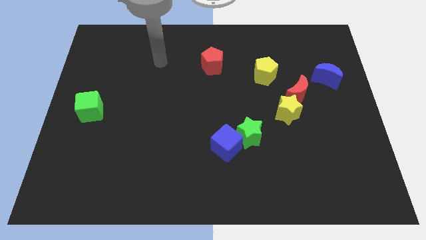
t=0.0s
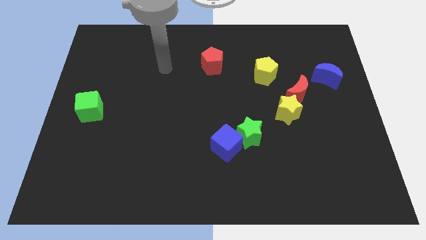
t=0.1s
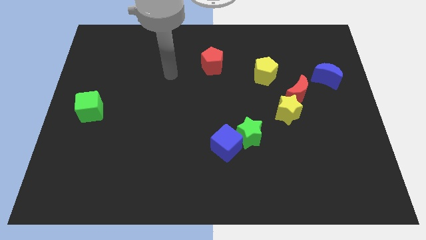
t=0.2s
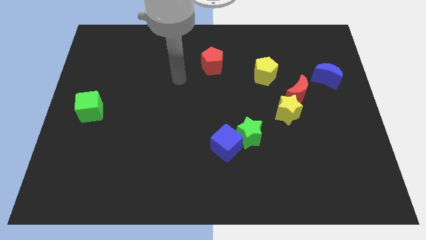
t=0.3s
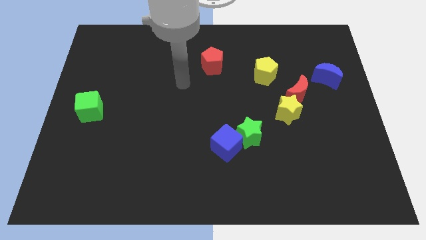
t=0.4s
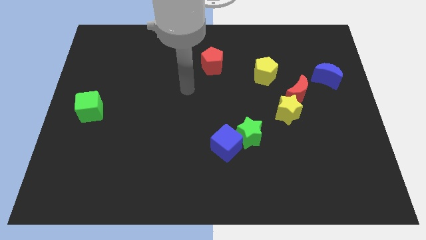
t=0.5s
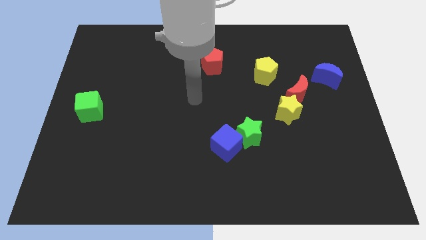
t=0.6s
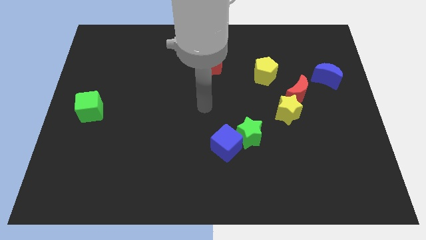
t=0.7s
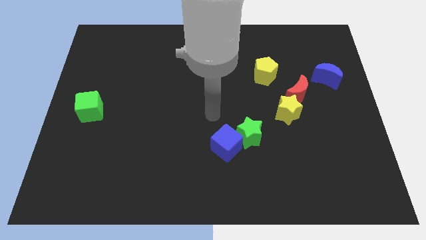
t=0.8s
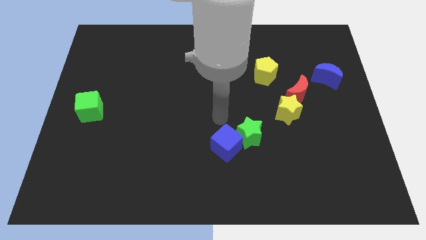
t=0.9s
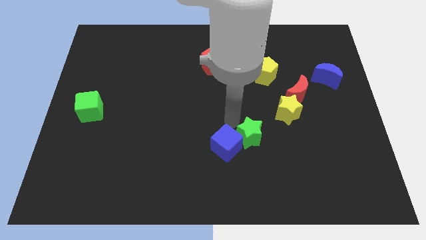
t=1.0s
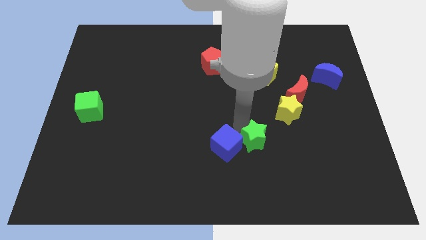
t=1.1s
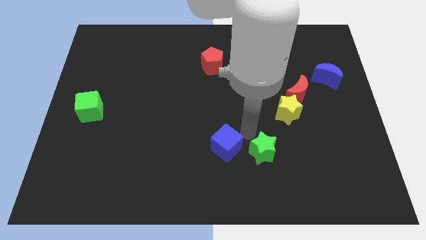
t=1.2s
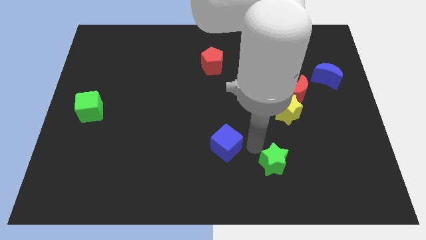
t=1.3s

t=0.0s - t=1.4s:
pull the blue cube apart from the green star

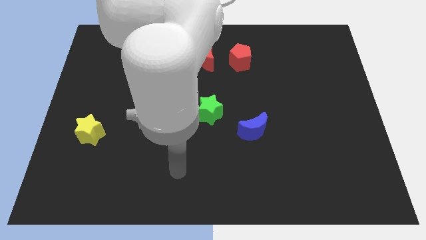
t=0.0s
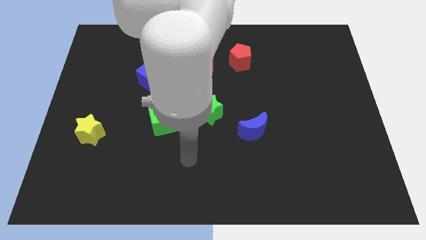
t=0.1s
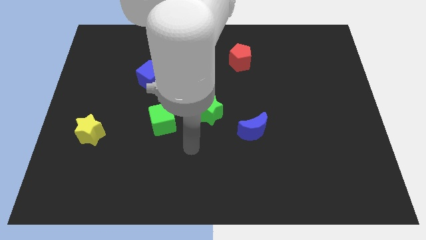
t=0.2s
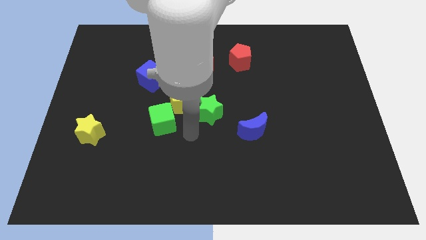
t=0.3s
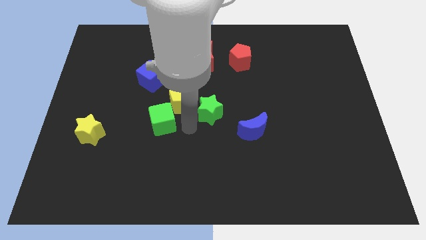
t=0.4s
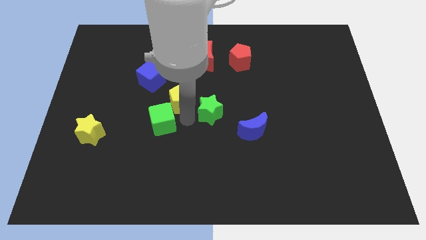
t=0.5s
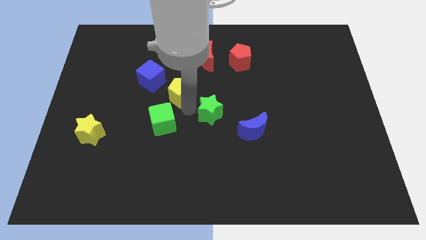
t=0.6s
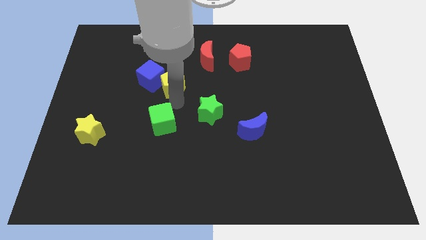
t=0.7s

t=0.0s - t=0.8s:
separate the green cube from the yellow pentagon

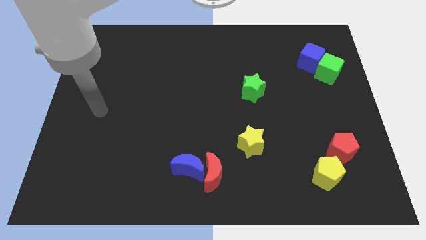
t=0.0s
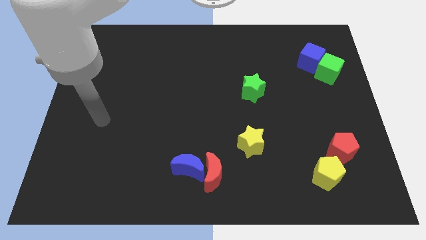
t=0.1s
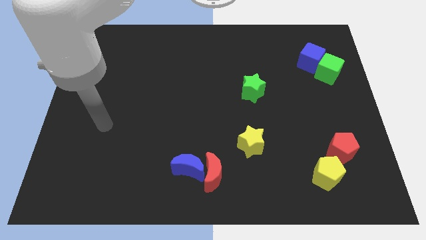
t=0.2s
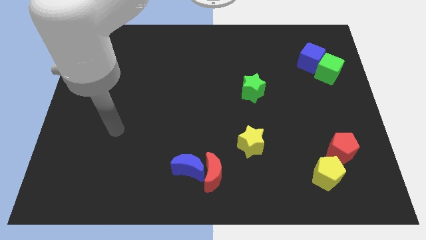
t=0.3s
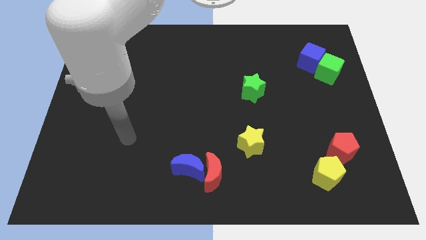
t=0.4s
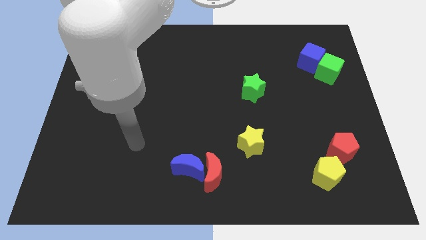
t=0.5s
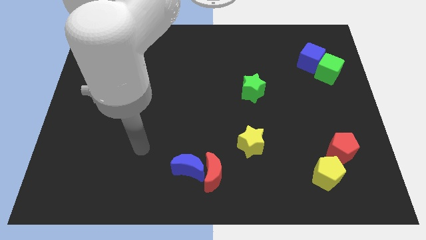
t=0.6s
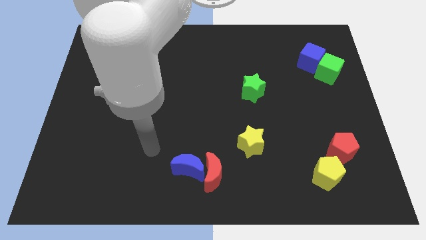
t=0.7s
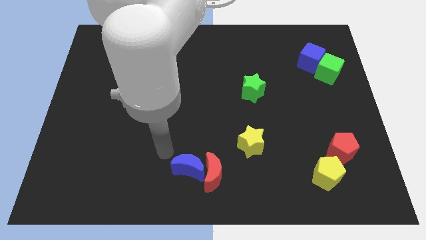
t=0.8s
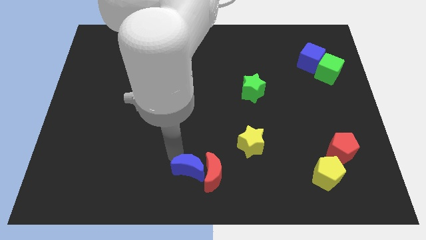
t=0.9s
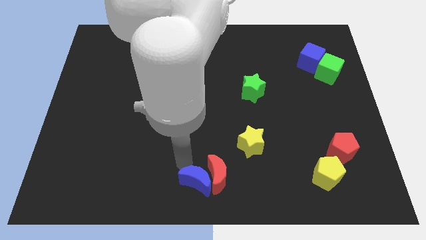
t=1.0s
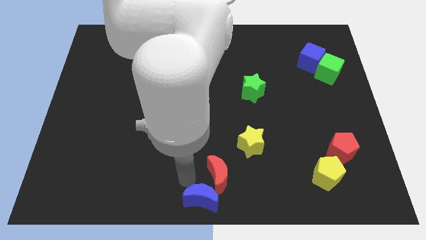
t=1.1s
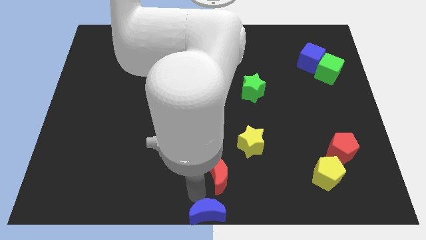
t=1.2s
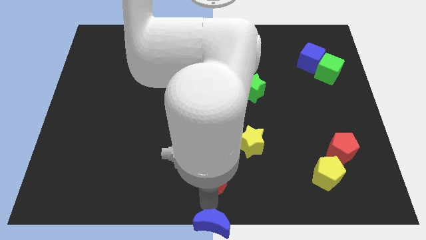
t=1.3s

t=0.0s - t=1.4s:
pull the red moon apart from the blue moon

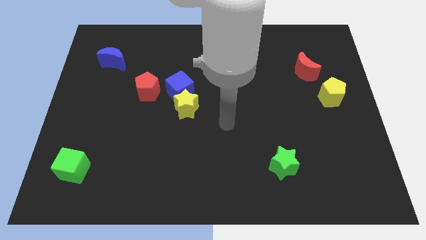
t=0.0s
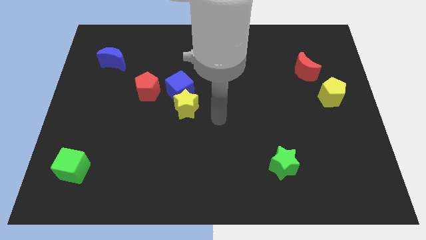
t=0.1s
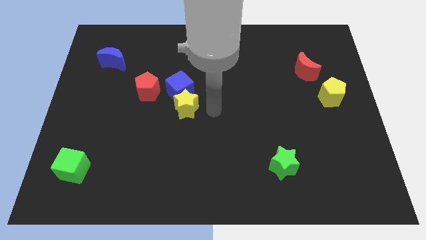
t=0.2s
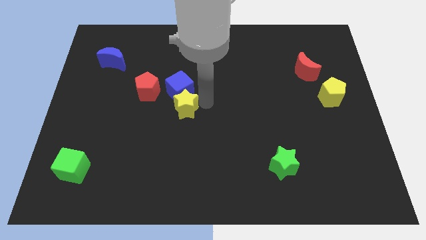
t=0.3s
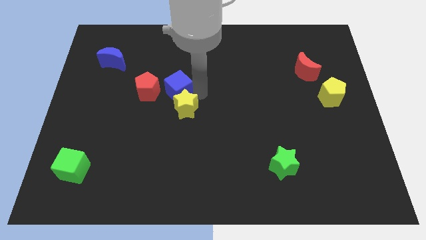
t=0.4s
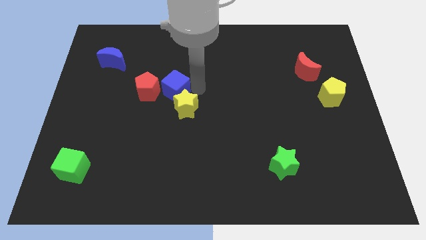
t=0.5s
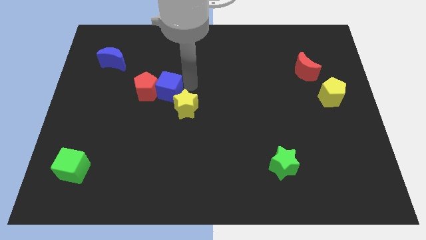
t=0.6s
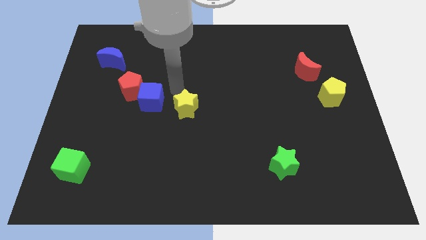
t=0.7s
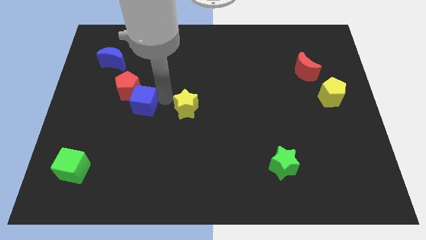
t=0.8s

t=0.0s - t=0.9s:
separate the yellow star from the blue cube

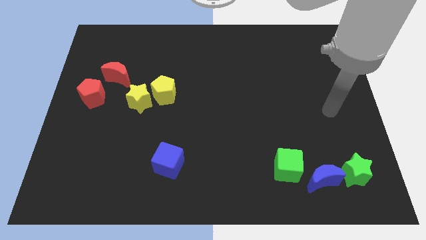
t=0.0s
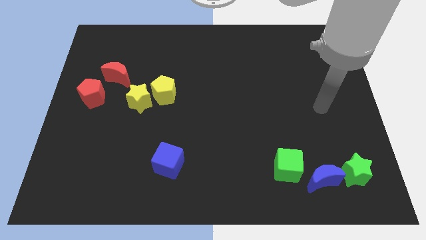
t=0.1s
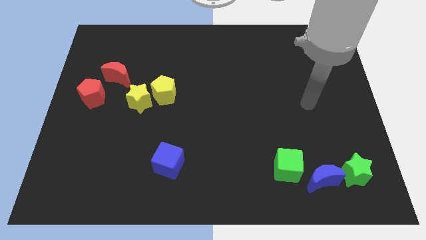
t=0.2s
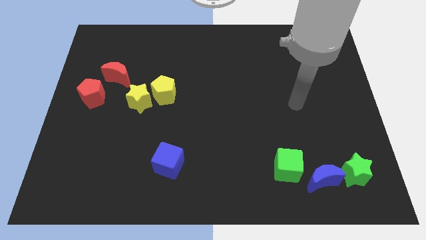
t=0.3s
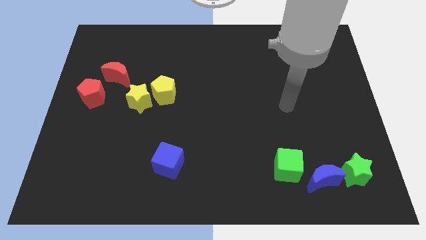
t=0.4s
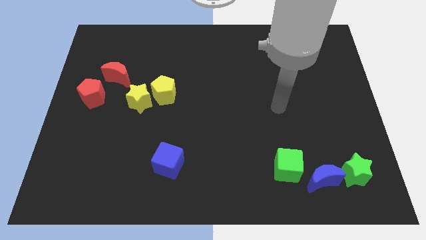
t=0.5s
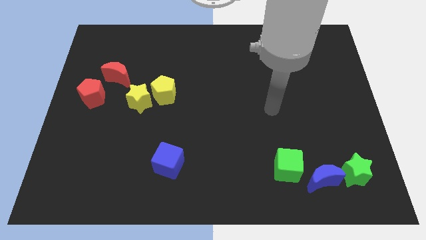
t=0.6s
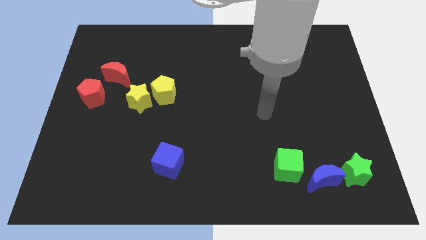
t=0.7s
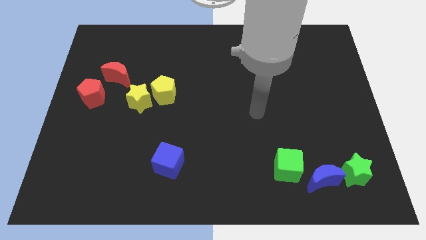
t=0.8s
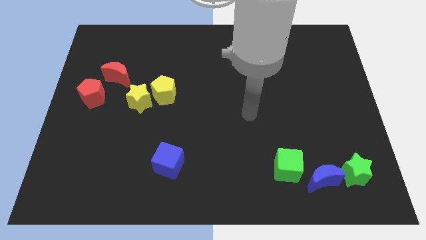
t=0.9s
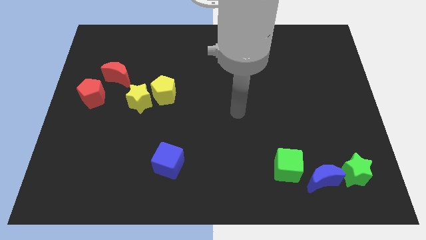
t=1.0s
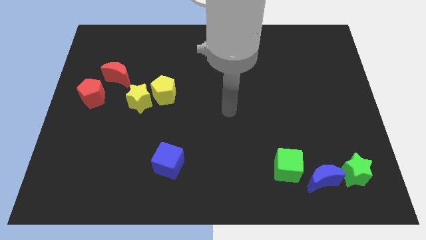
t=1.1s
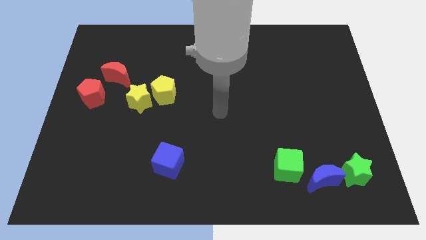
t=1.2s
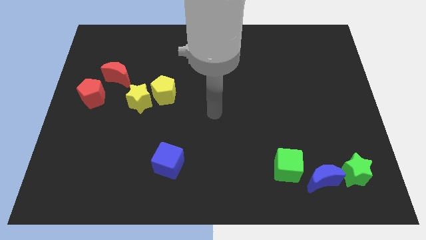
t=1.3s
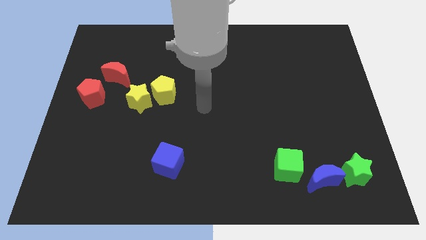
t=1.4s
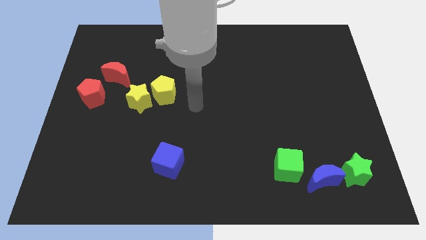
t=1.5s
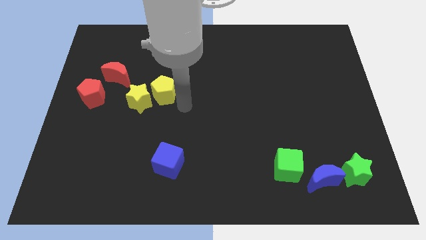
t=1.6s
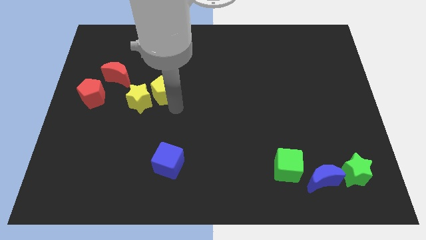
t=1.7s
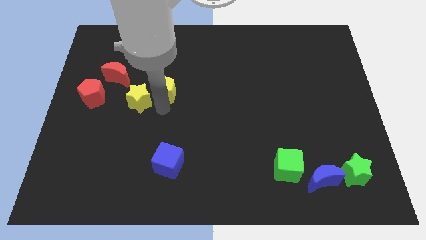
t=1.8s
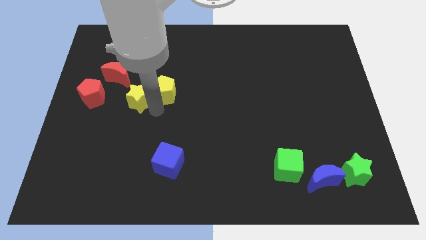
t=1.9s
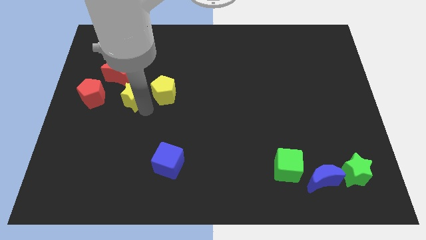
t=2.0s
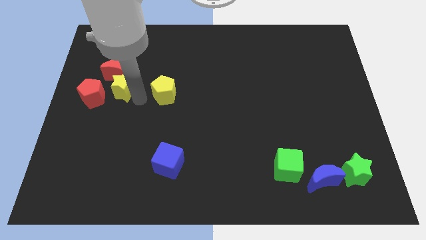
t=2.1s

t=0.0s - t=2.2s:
separate the yellow pentagon from the yellow star

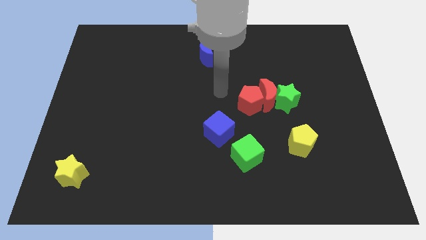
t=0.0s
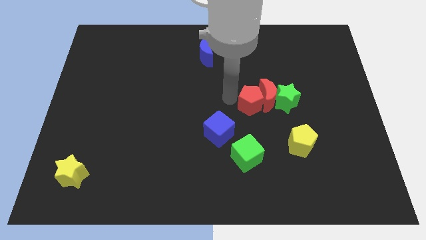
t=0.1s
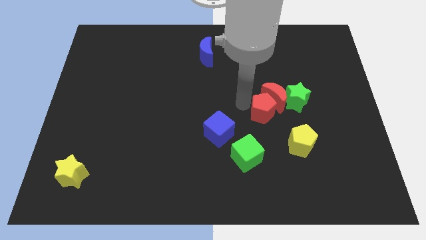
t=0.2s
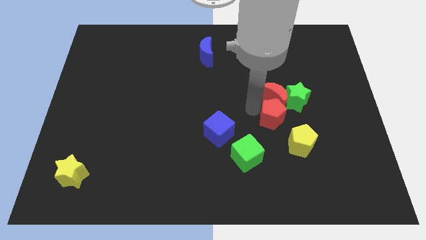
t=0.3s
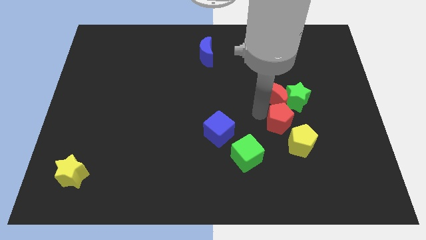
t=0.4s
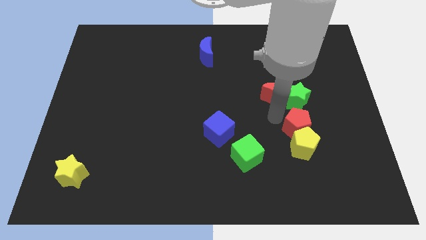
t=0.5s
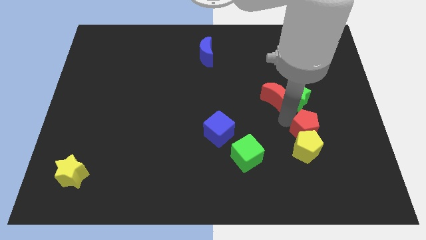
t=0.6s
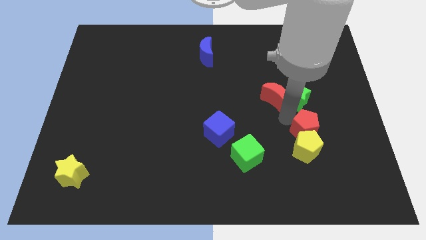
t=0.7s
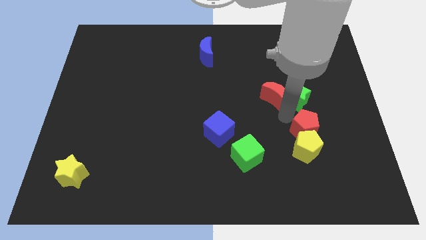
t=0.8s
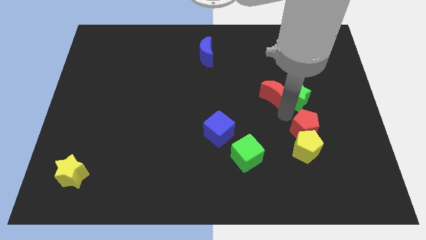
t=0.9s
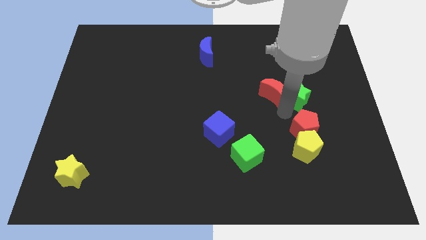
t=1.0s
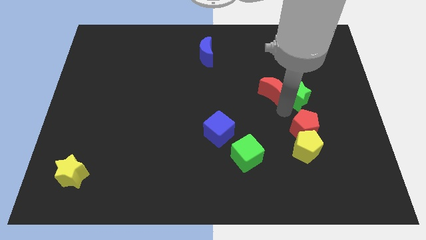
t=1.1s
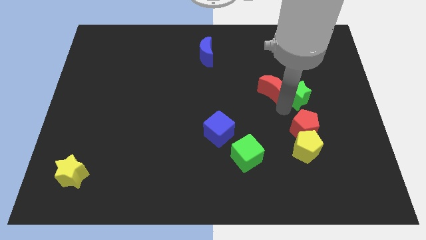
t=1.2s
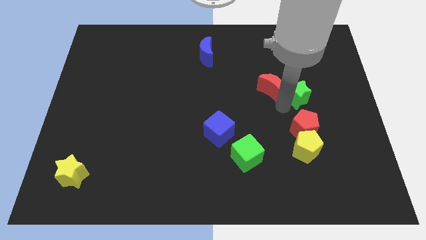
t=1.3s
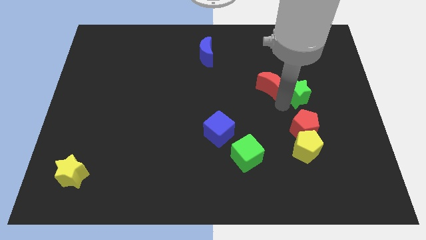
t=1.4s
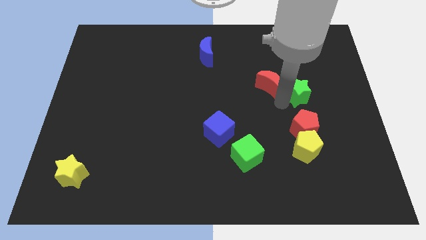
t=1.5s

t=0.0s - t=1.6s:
move the red moon away from the green star and red pentagon

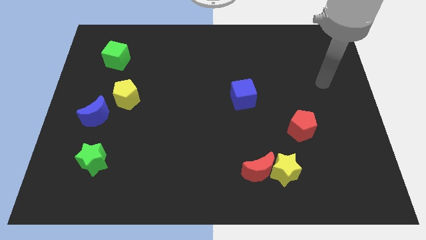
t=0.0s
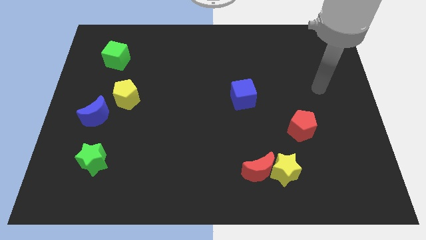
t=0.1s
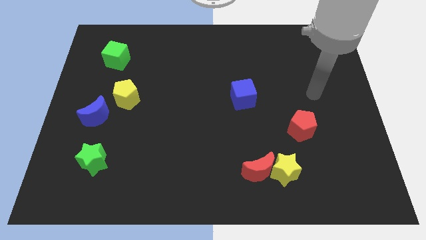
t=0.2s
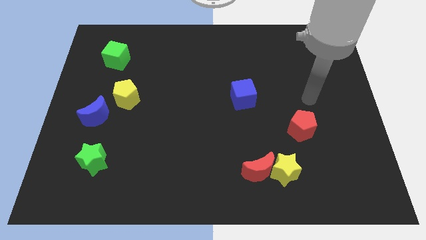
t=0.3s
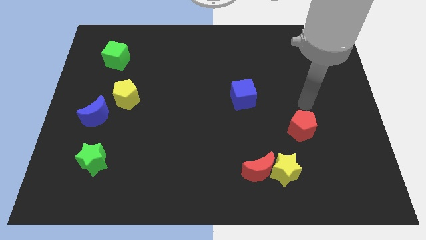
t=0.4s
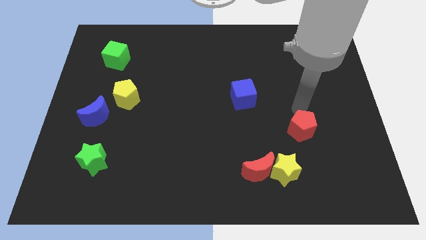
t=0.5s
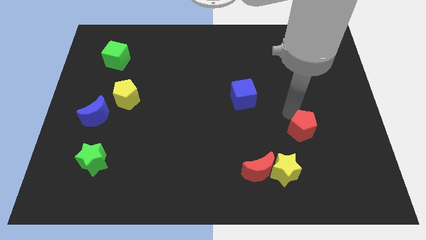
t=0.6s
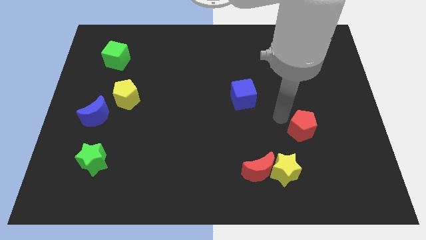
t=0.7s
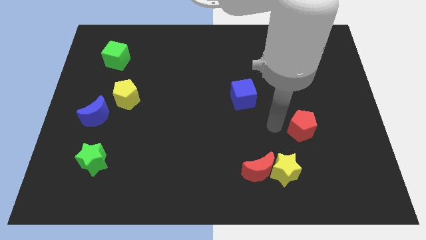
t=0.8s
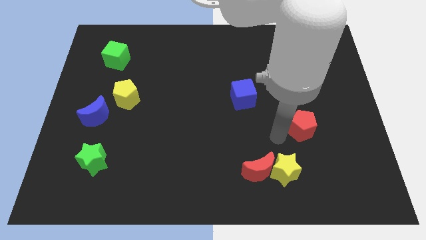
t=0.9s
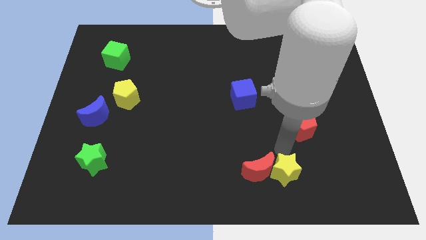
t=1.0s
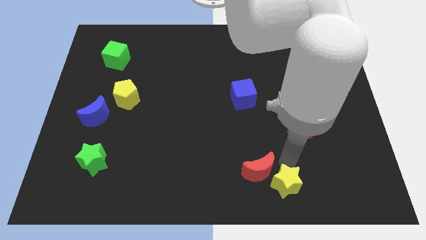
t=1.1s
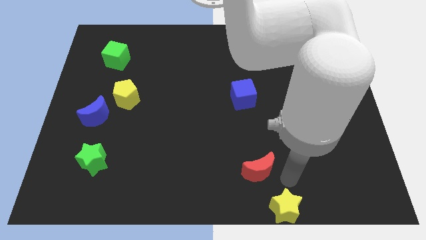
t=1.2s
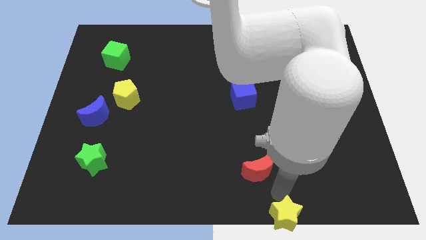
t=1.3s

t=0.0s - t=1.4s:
separate the red moon from the yellow star
